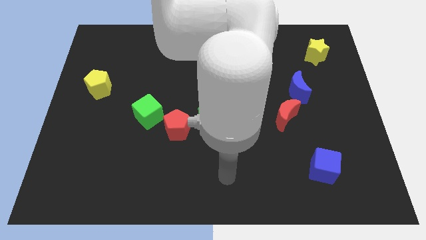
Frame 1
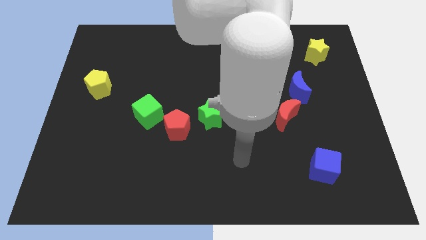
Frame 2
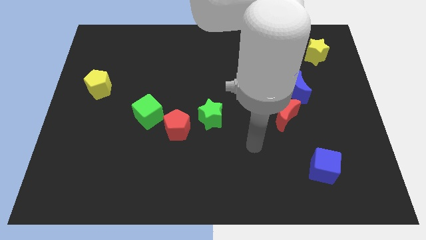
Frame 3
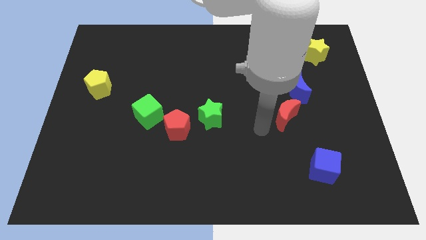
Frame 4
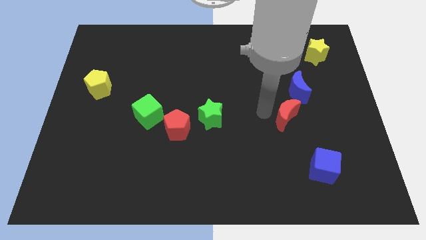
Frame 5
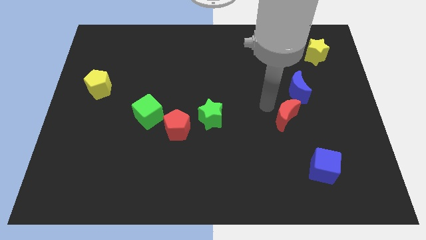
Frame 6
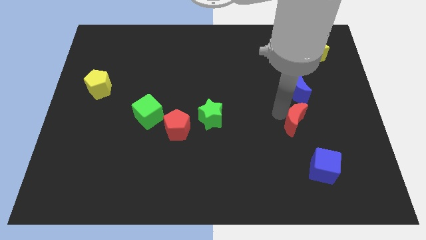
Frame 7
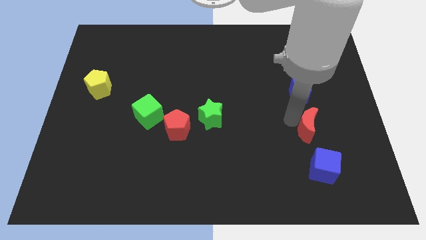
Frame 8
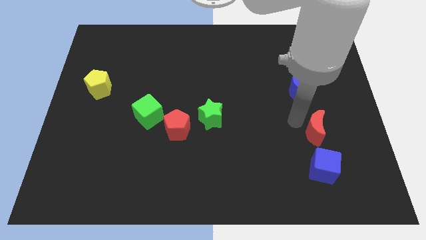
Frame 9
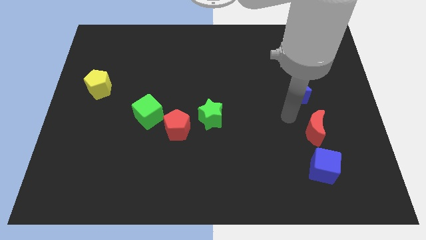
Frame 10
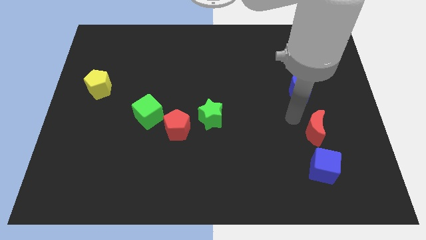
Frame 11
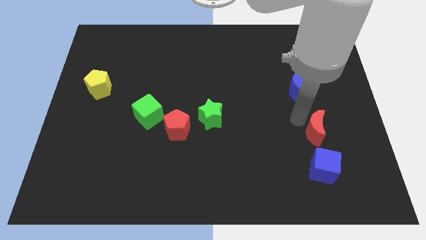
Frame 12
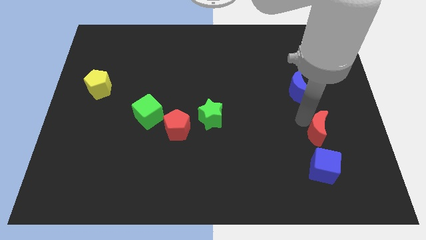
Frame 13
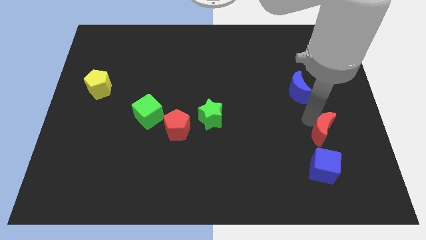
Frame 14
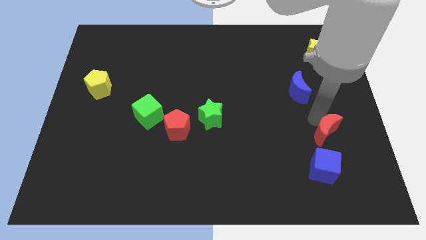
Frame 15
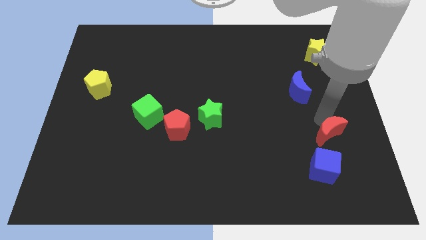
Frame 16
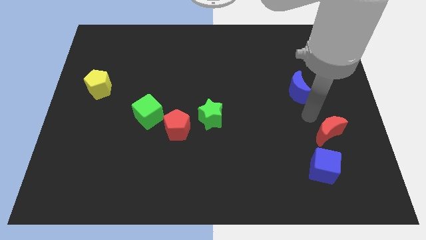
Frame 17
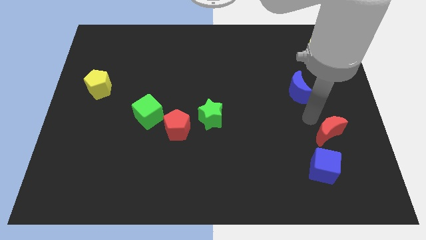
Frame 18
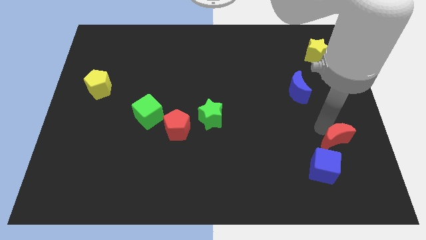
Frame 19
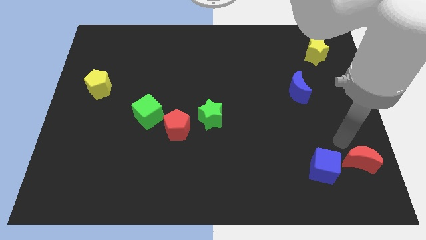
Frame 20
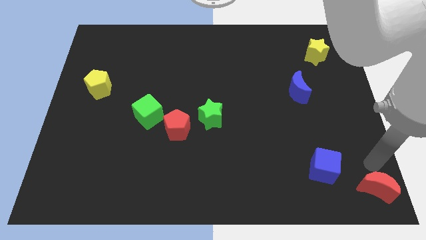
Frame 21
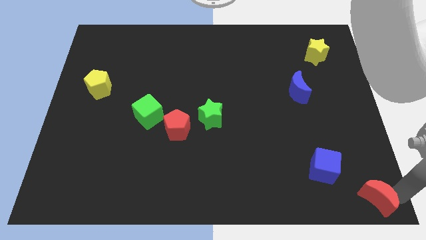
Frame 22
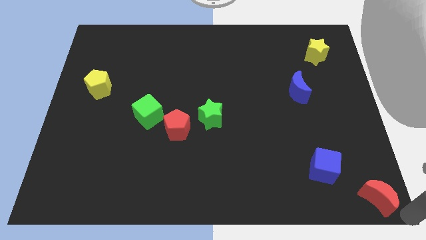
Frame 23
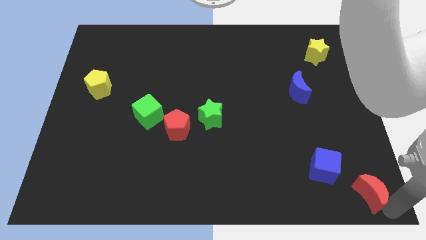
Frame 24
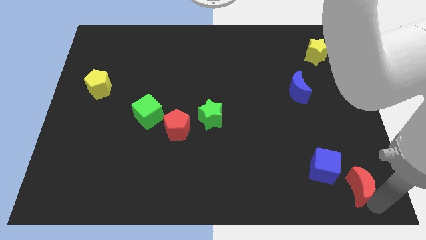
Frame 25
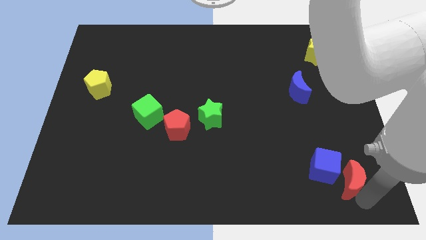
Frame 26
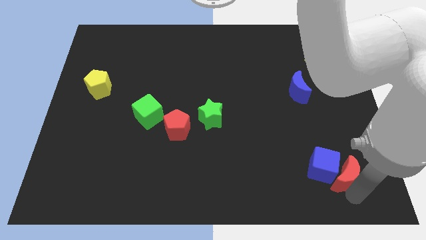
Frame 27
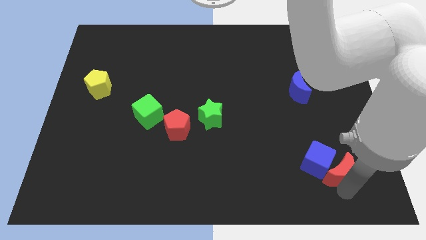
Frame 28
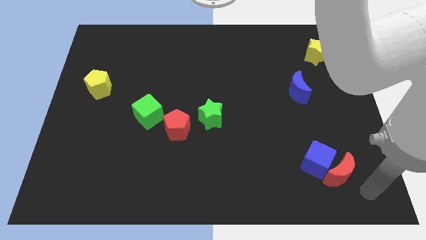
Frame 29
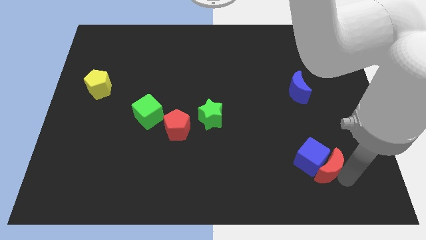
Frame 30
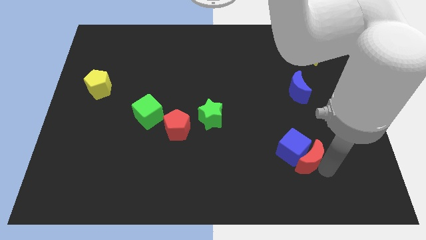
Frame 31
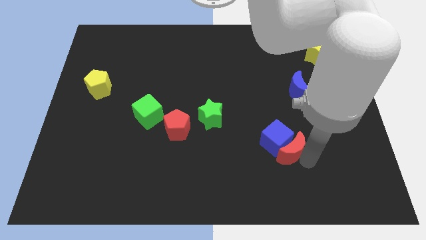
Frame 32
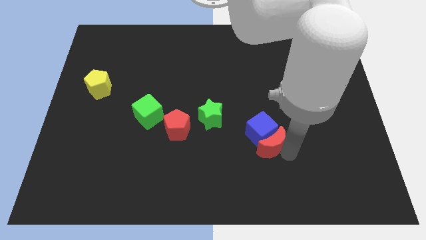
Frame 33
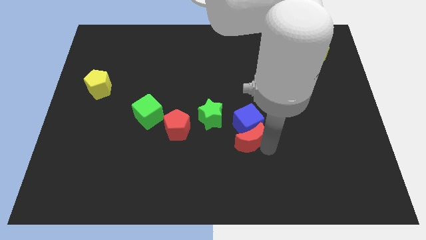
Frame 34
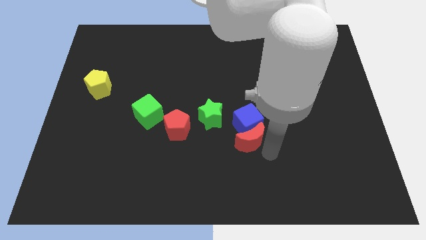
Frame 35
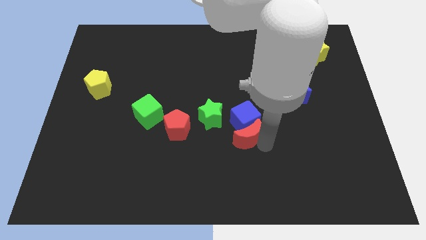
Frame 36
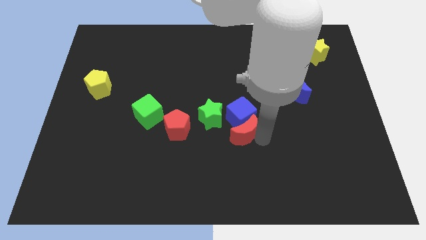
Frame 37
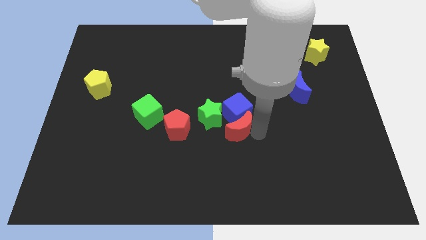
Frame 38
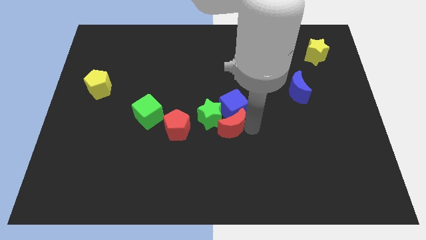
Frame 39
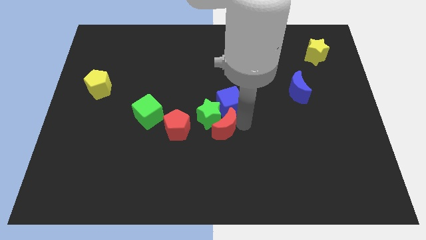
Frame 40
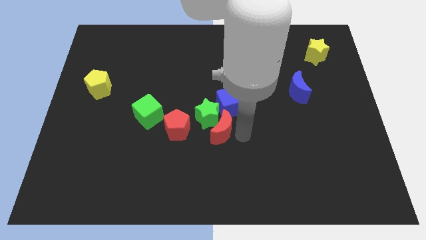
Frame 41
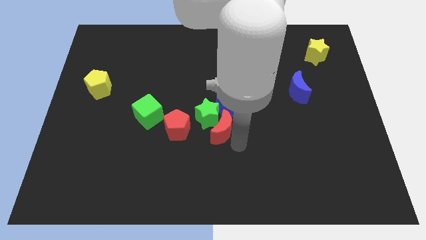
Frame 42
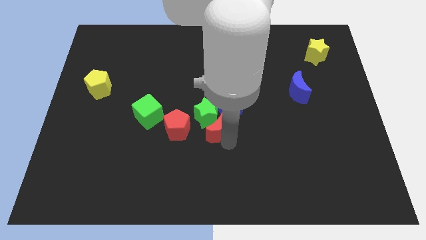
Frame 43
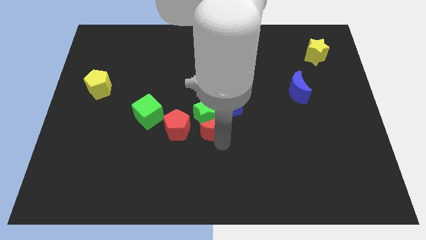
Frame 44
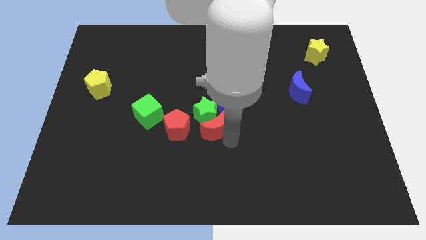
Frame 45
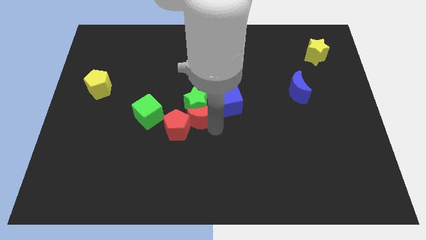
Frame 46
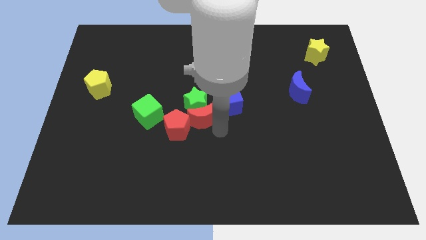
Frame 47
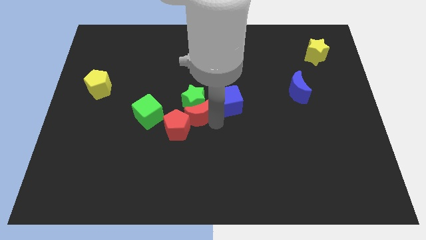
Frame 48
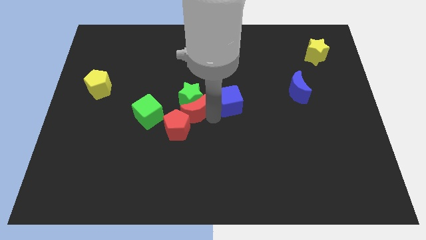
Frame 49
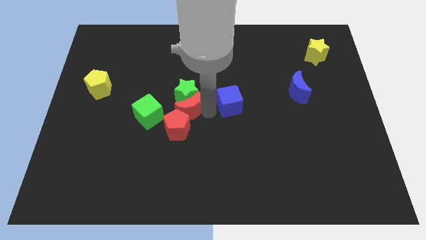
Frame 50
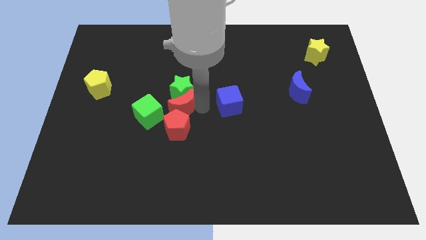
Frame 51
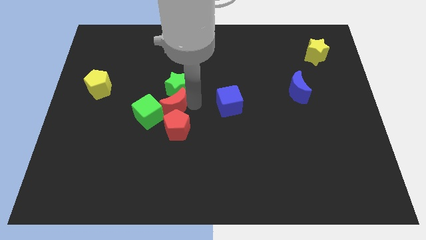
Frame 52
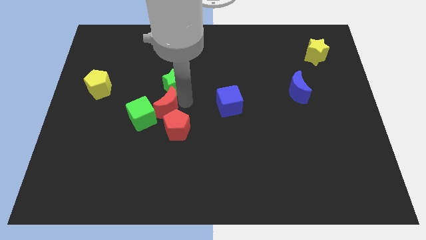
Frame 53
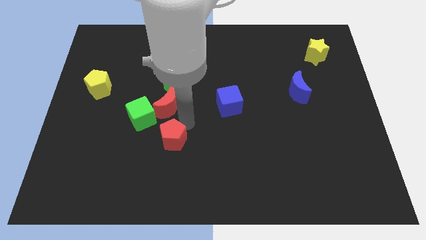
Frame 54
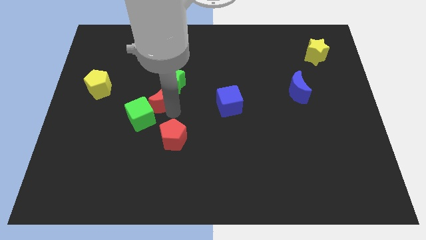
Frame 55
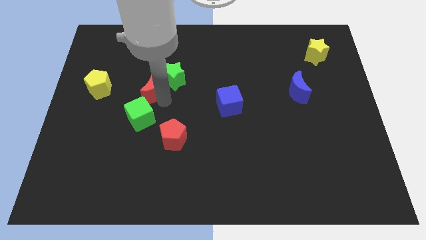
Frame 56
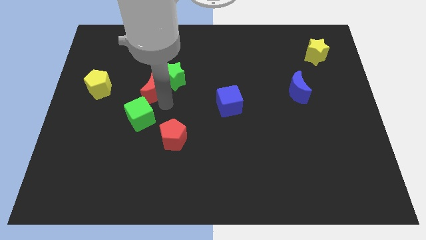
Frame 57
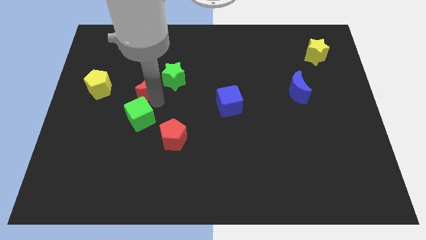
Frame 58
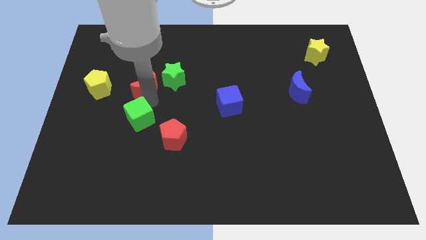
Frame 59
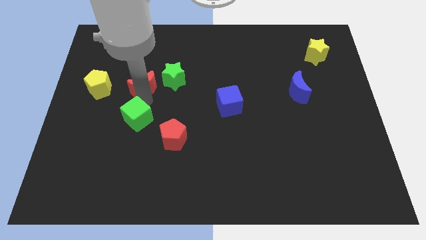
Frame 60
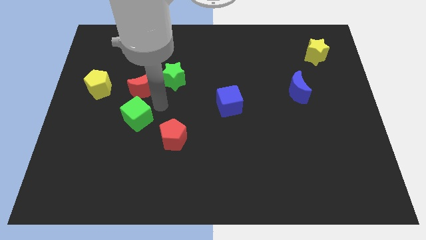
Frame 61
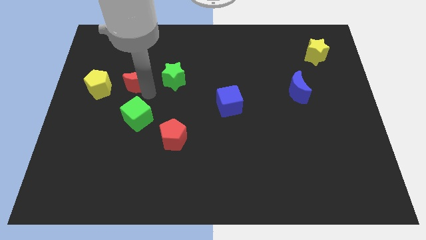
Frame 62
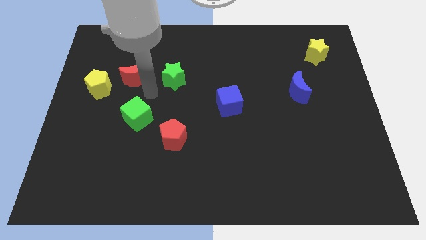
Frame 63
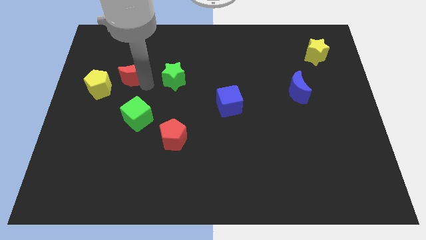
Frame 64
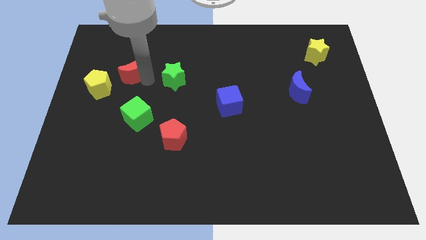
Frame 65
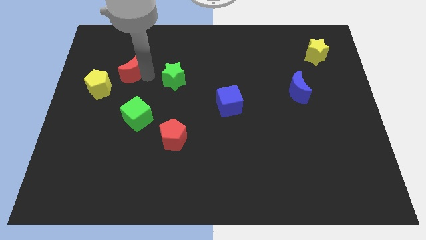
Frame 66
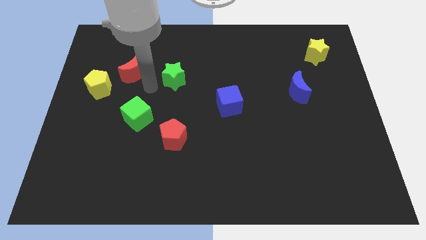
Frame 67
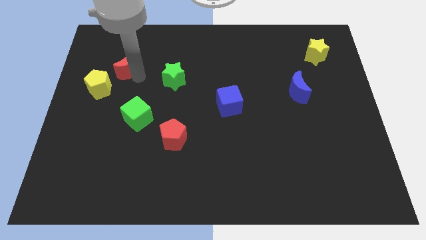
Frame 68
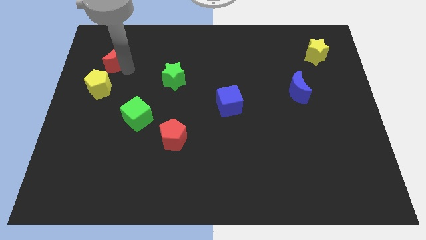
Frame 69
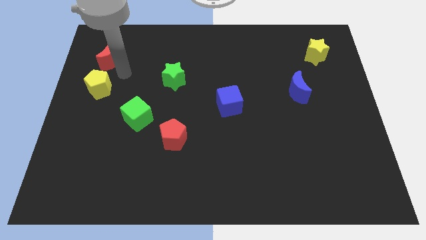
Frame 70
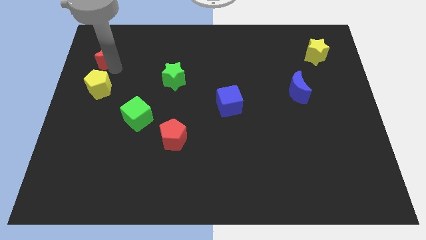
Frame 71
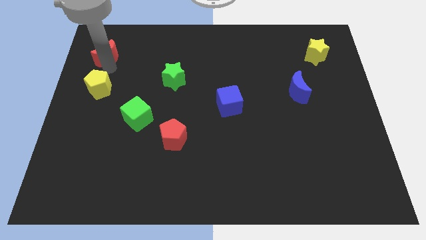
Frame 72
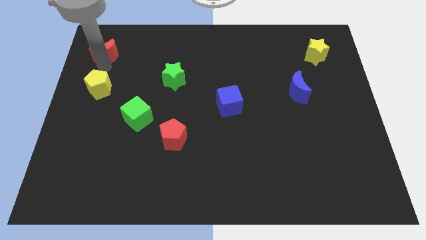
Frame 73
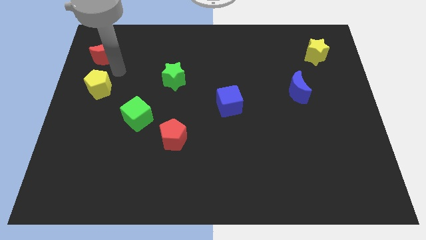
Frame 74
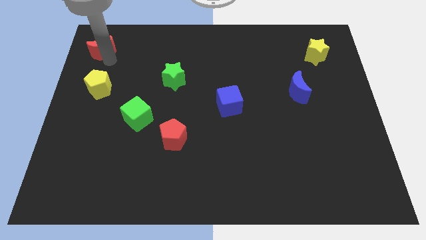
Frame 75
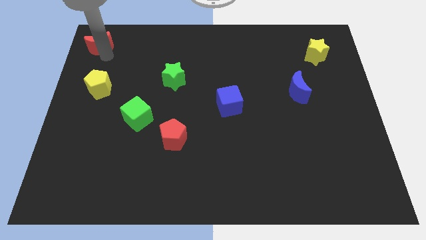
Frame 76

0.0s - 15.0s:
slide the red moon to the upper left corner
